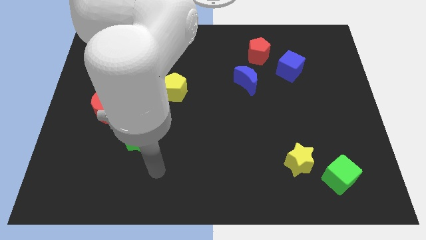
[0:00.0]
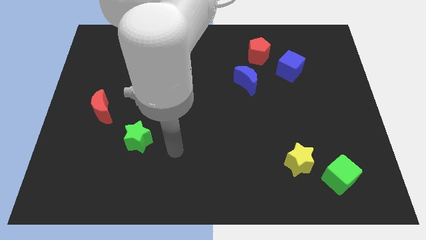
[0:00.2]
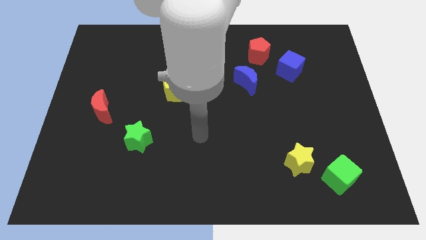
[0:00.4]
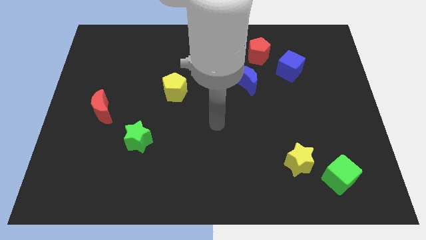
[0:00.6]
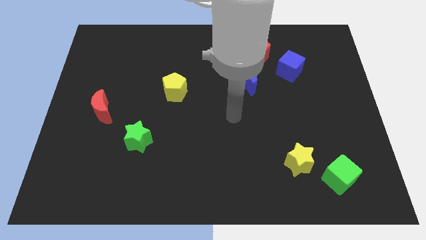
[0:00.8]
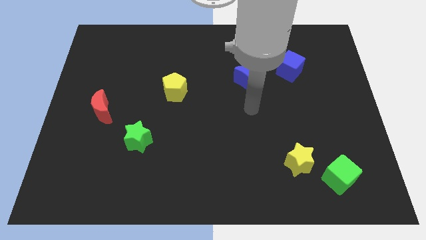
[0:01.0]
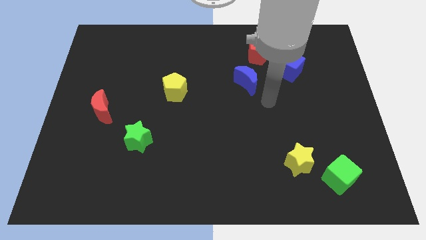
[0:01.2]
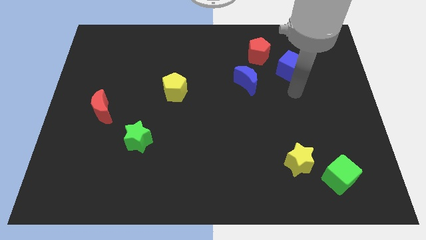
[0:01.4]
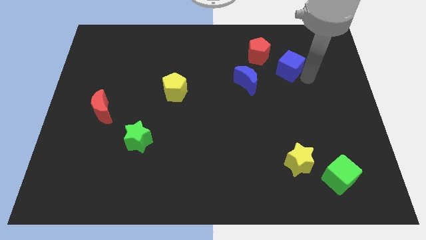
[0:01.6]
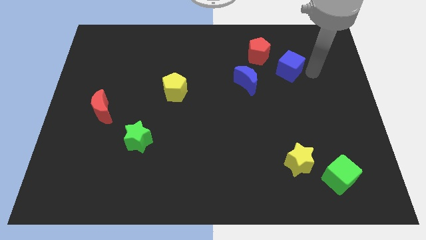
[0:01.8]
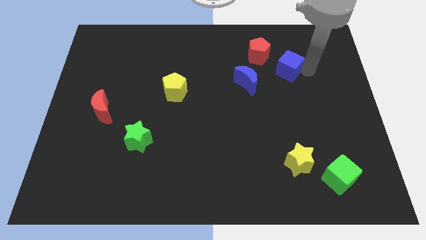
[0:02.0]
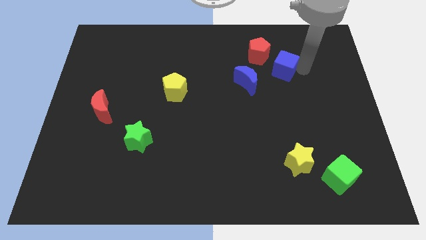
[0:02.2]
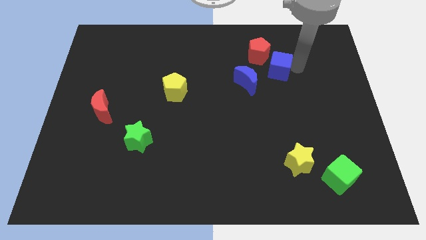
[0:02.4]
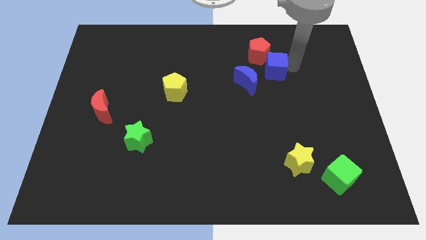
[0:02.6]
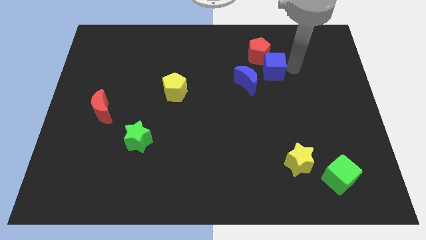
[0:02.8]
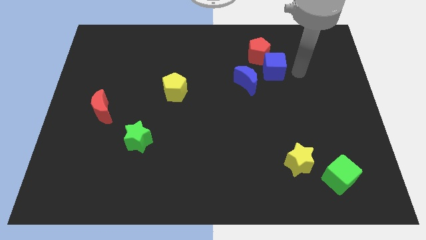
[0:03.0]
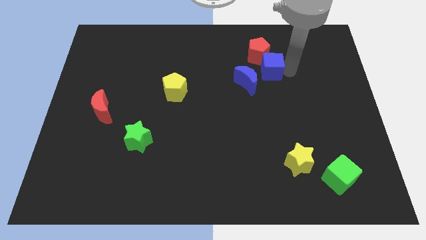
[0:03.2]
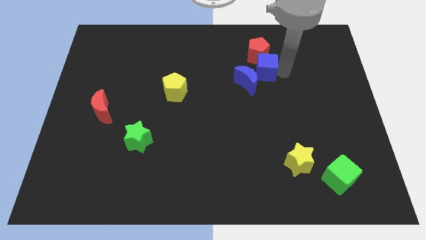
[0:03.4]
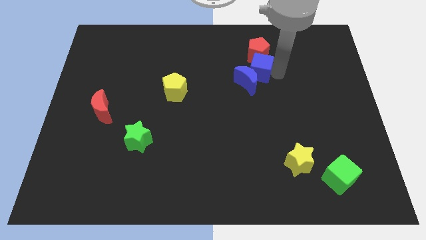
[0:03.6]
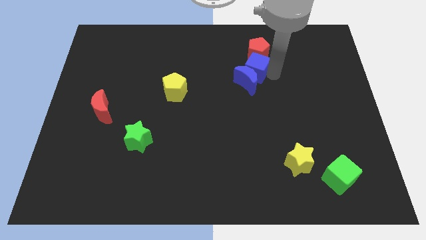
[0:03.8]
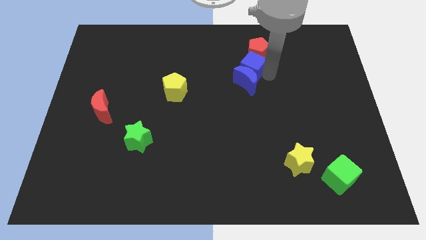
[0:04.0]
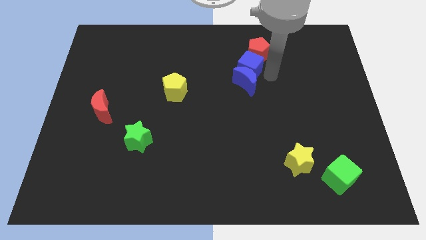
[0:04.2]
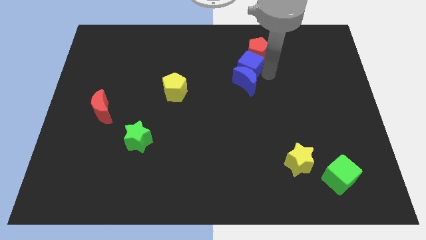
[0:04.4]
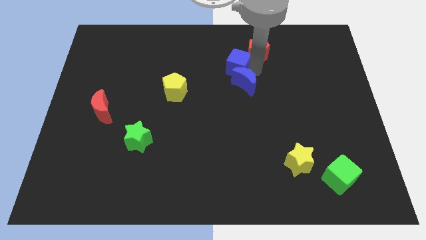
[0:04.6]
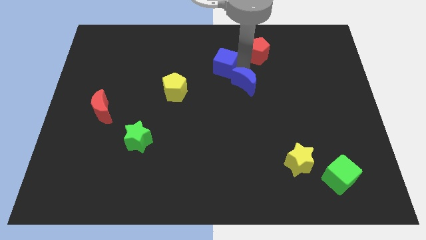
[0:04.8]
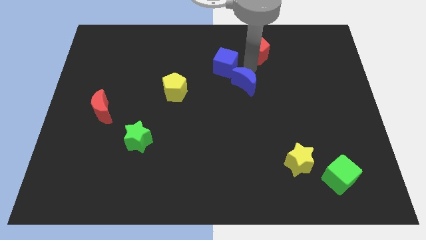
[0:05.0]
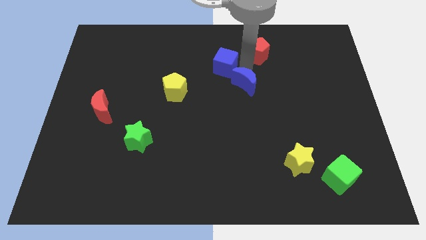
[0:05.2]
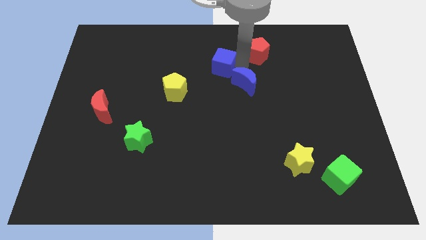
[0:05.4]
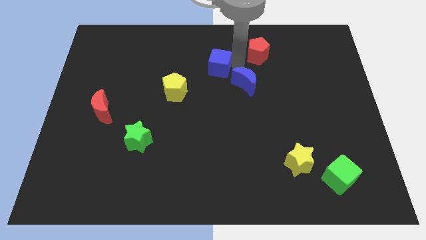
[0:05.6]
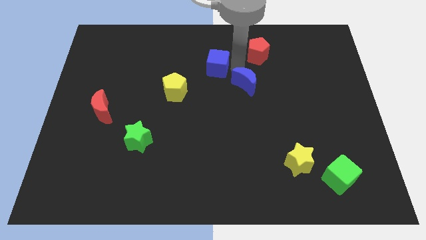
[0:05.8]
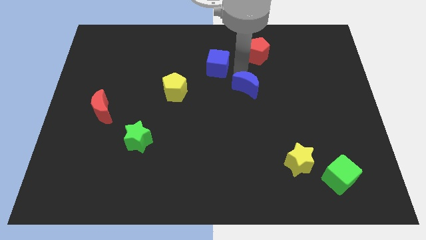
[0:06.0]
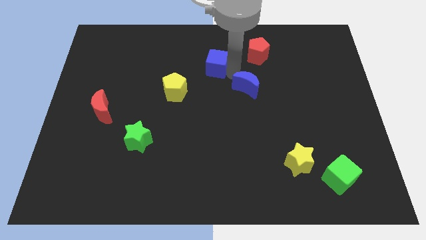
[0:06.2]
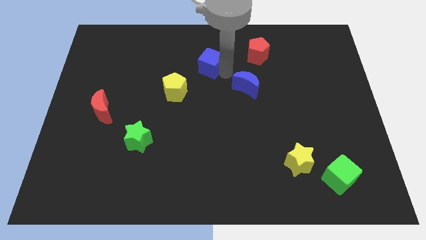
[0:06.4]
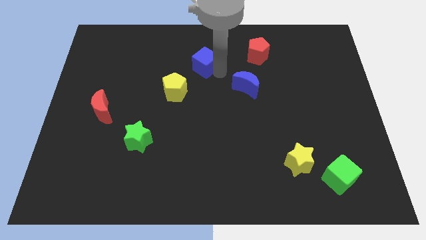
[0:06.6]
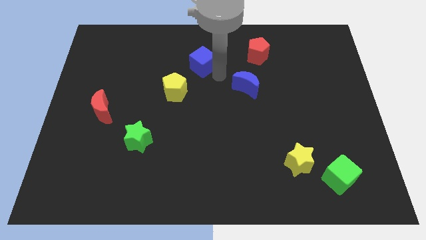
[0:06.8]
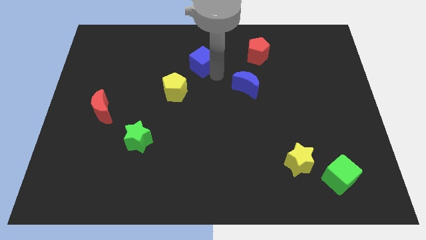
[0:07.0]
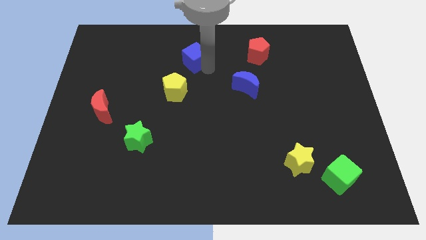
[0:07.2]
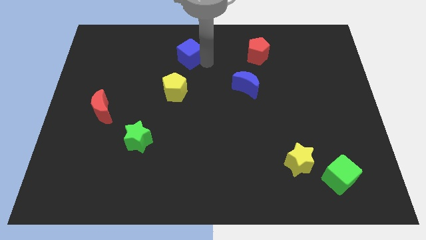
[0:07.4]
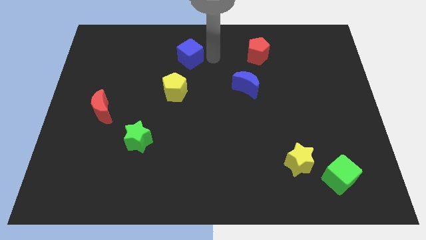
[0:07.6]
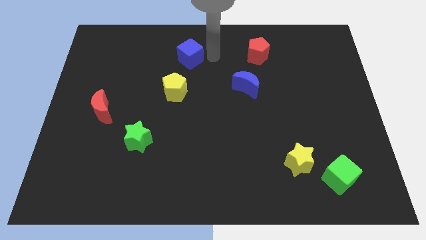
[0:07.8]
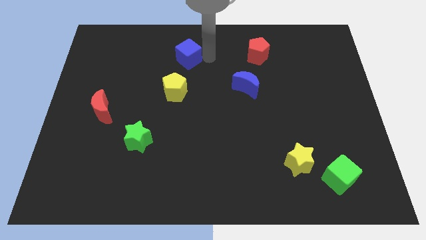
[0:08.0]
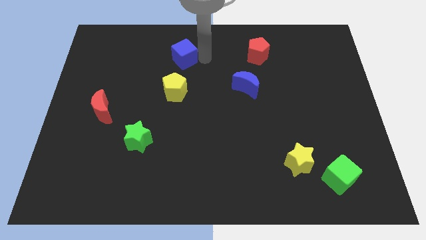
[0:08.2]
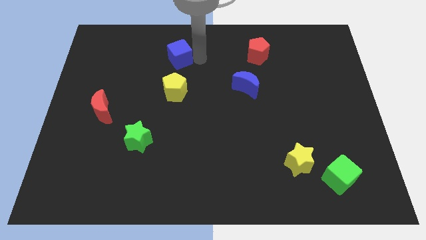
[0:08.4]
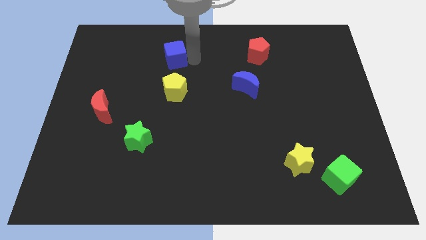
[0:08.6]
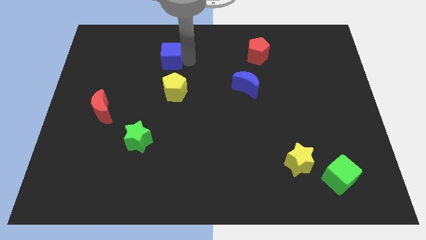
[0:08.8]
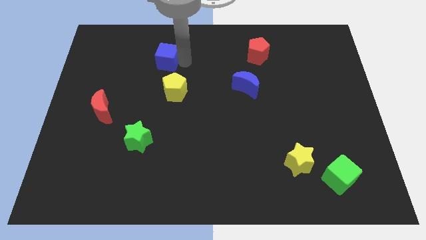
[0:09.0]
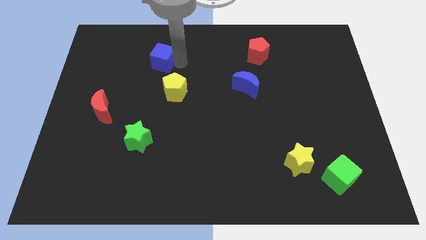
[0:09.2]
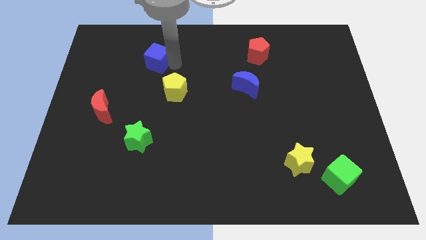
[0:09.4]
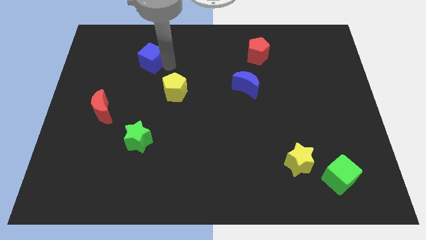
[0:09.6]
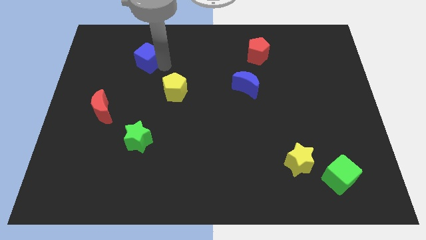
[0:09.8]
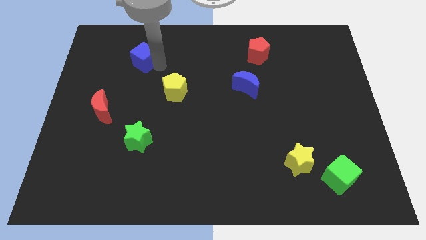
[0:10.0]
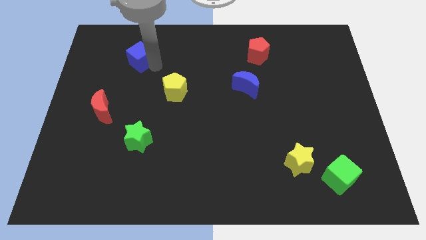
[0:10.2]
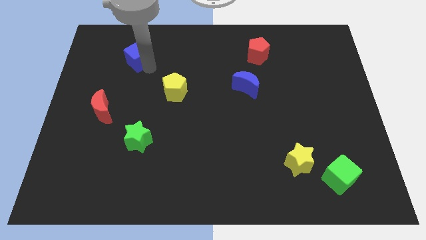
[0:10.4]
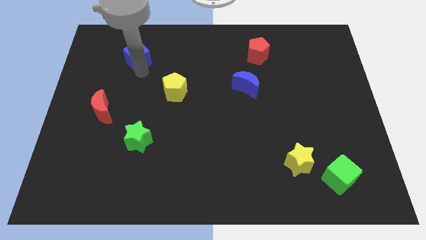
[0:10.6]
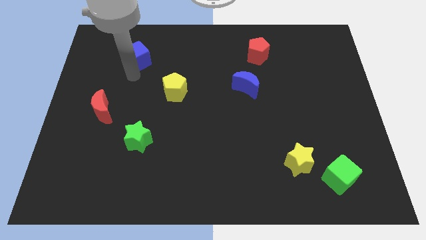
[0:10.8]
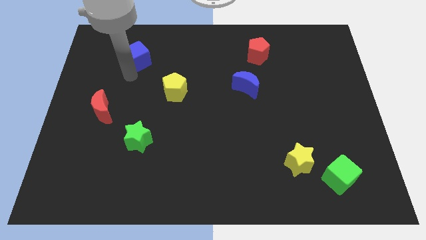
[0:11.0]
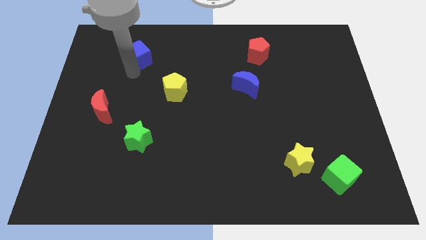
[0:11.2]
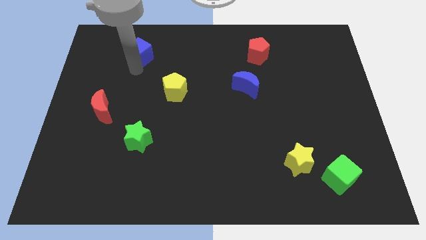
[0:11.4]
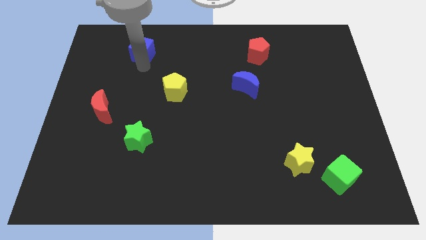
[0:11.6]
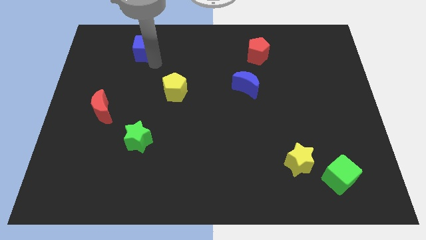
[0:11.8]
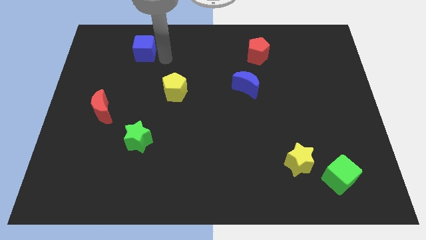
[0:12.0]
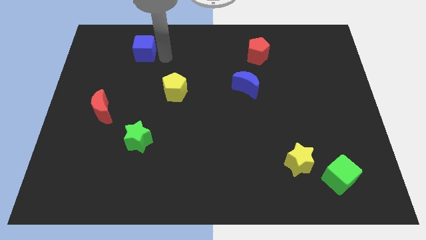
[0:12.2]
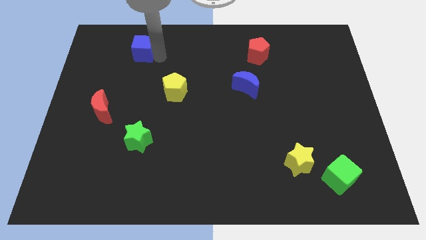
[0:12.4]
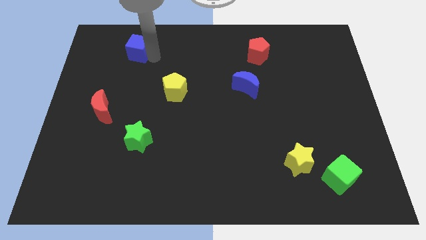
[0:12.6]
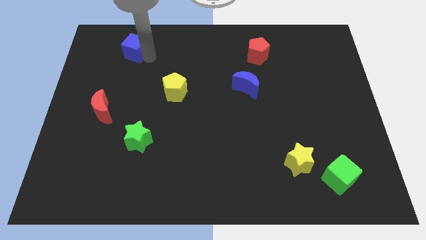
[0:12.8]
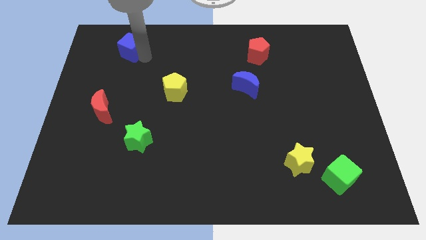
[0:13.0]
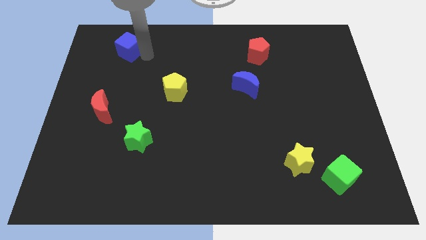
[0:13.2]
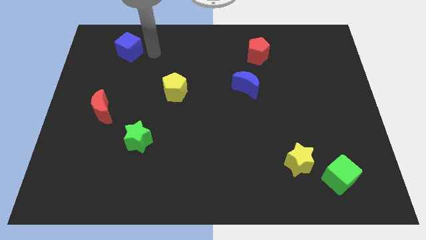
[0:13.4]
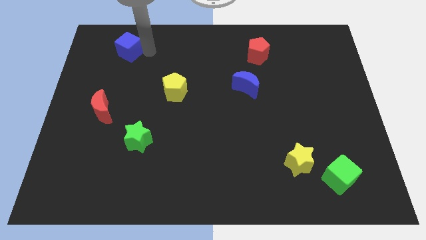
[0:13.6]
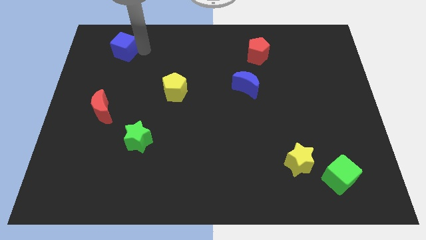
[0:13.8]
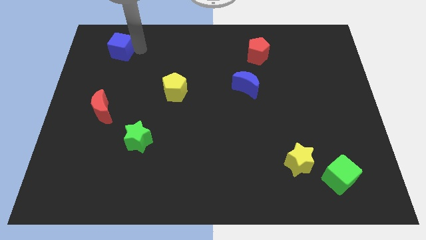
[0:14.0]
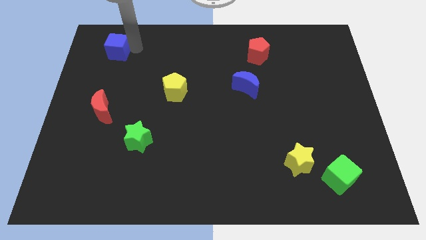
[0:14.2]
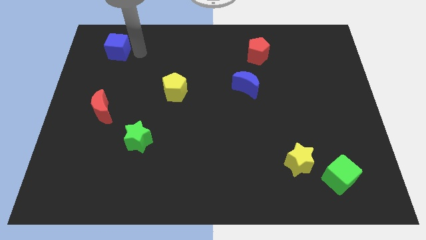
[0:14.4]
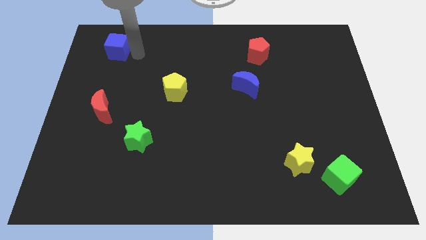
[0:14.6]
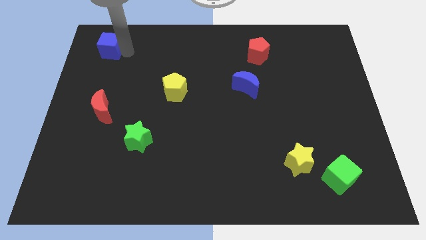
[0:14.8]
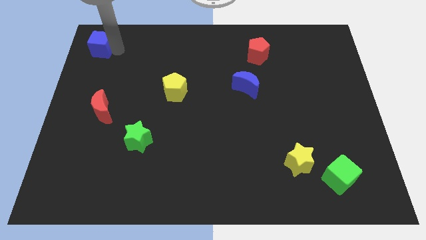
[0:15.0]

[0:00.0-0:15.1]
move the blue cube to the top left
